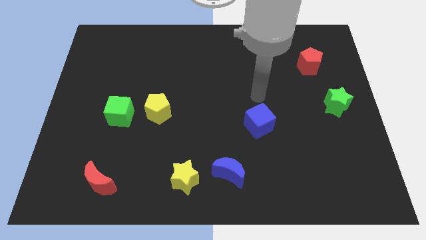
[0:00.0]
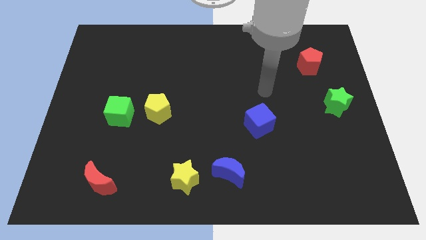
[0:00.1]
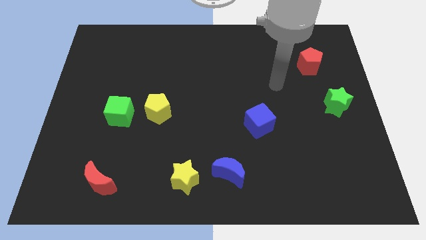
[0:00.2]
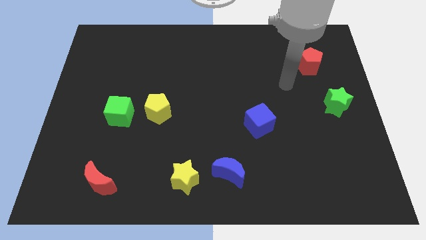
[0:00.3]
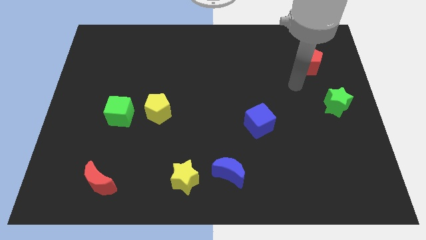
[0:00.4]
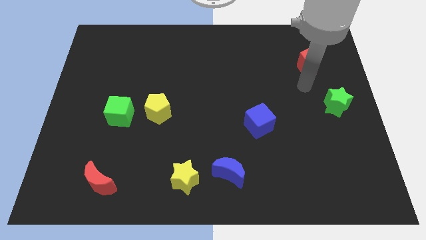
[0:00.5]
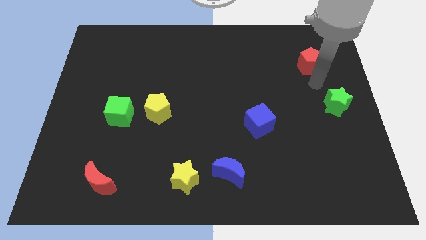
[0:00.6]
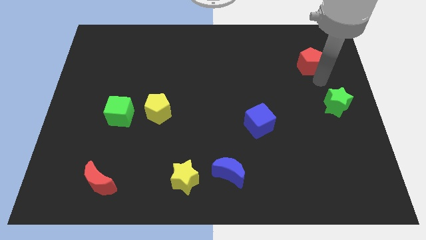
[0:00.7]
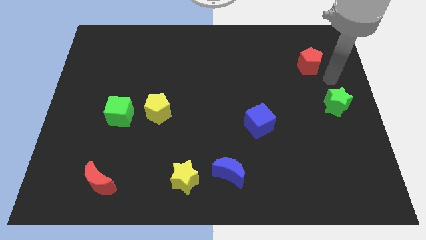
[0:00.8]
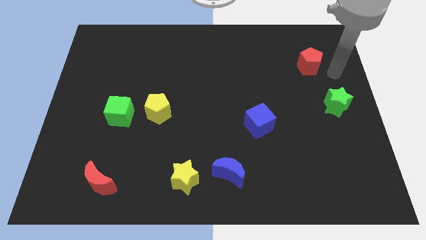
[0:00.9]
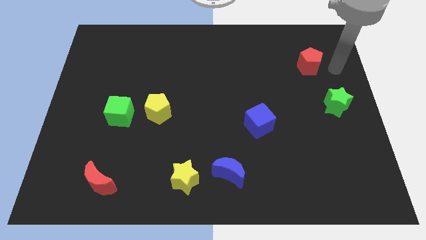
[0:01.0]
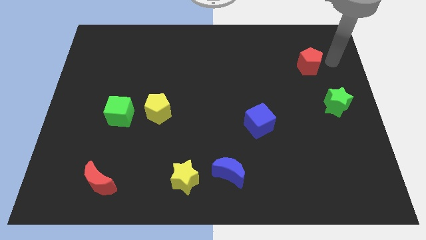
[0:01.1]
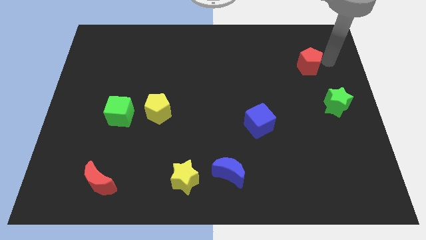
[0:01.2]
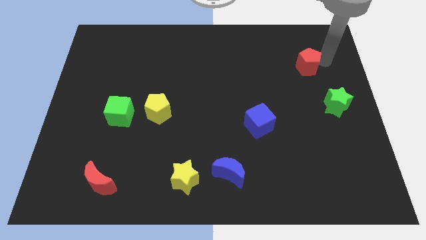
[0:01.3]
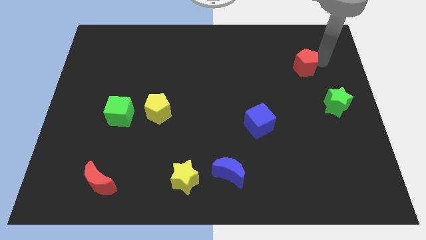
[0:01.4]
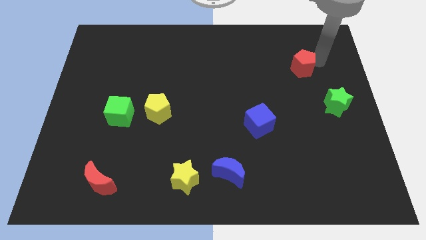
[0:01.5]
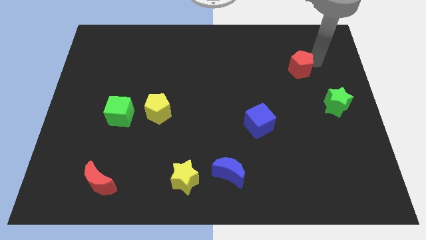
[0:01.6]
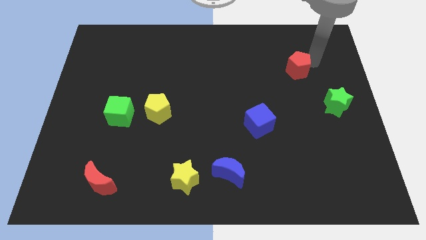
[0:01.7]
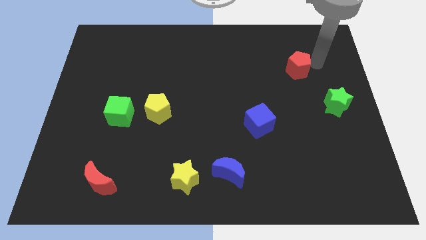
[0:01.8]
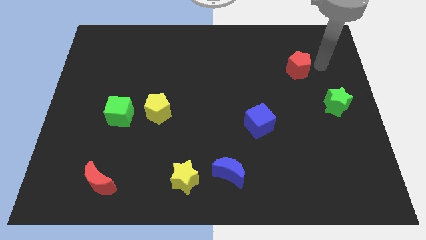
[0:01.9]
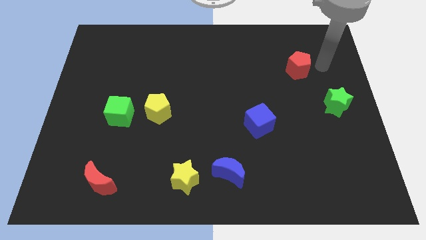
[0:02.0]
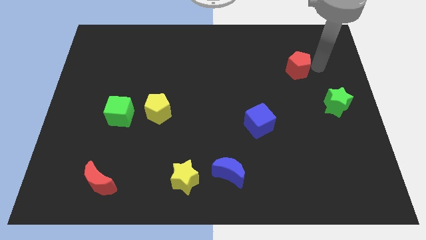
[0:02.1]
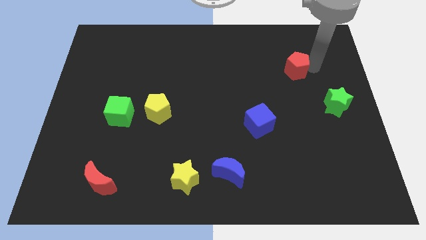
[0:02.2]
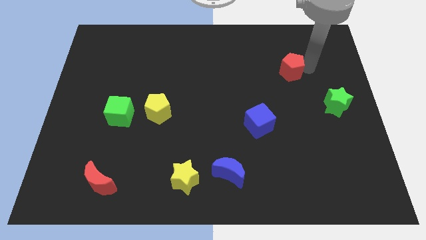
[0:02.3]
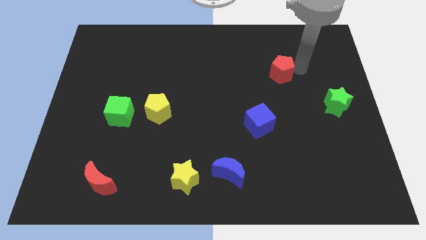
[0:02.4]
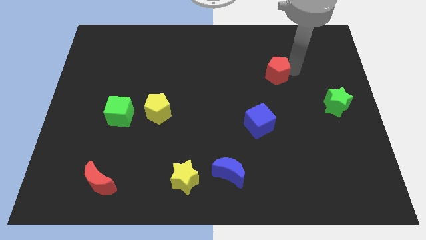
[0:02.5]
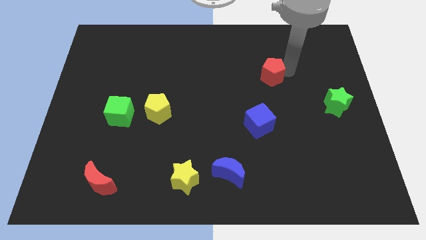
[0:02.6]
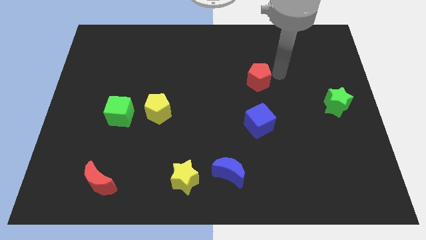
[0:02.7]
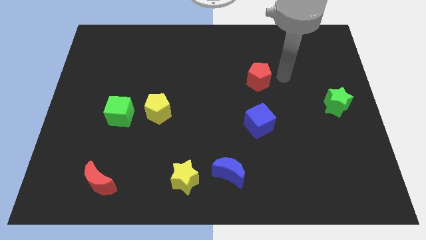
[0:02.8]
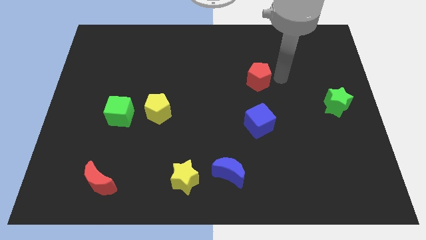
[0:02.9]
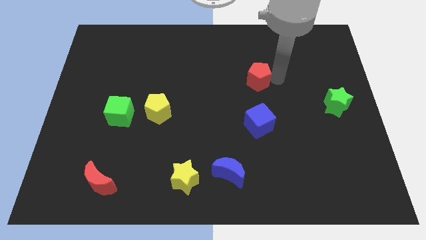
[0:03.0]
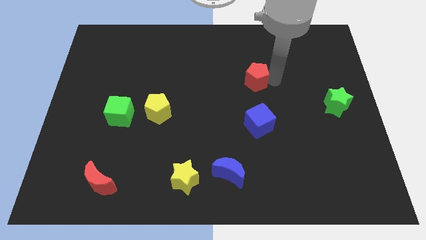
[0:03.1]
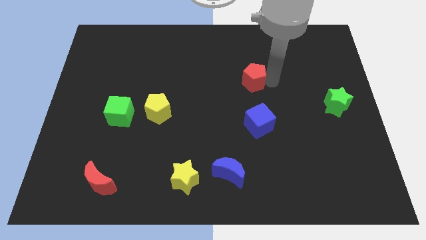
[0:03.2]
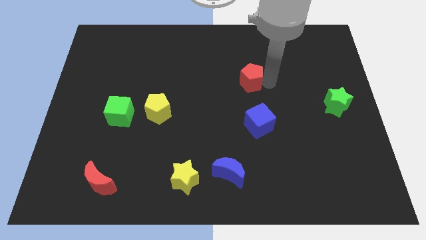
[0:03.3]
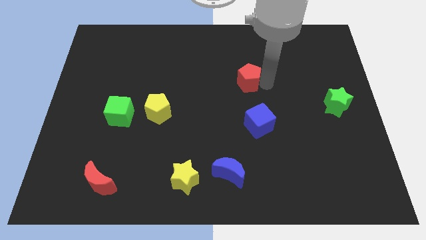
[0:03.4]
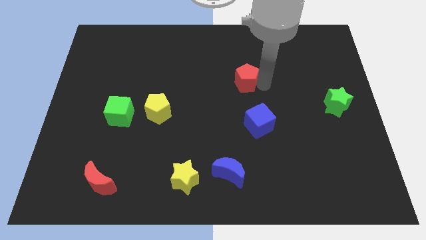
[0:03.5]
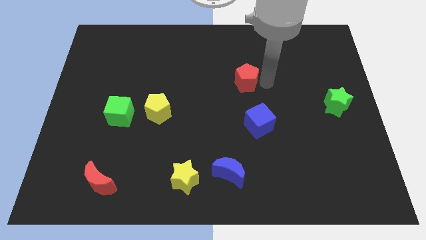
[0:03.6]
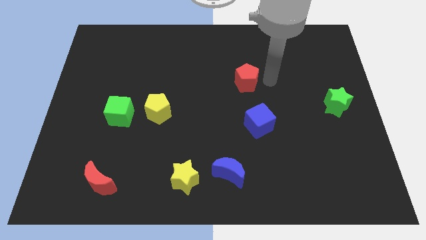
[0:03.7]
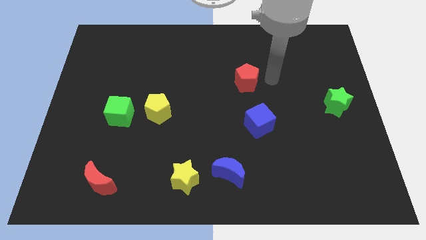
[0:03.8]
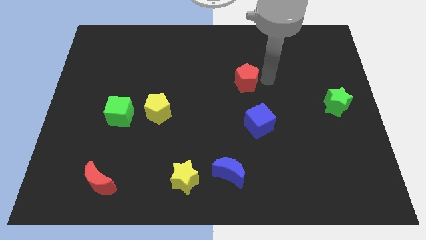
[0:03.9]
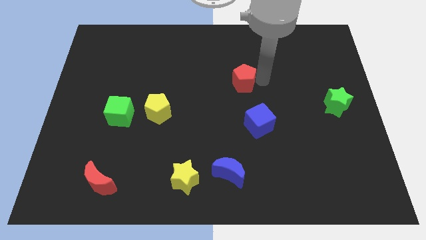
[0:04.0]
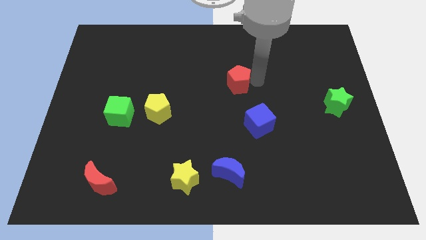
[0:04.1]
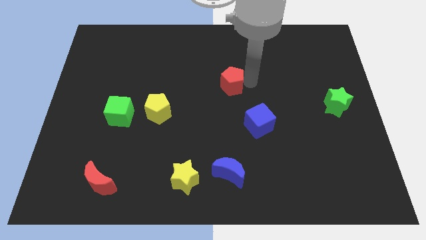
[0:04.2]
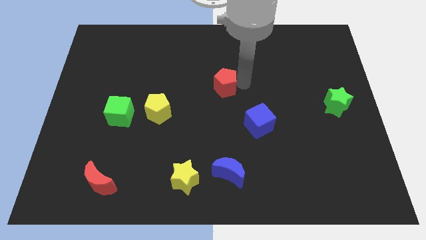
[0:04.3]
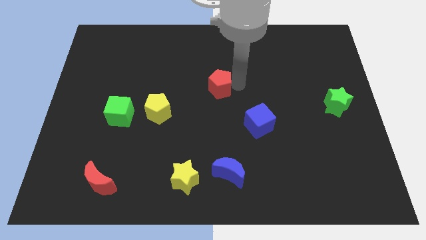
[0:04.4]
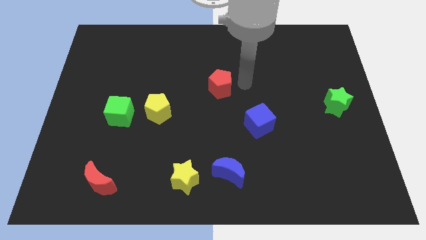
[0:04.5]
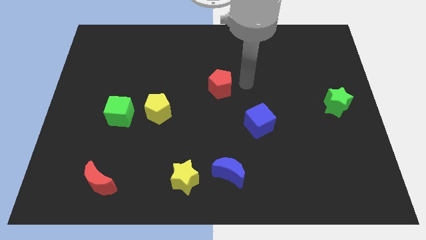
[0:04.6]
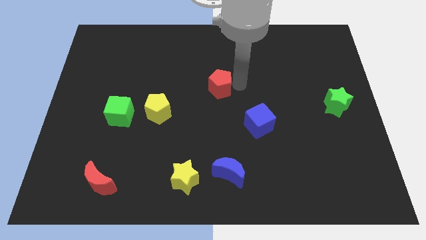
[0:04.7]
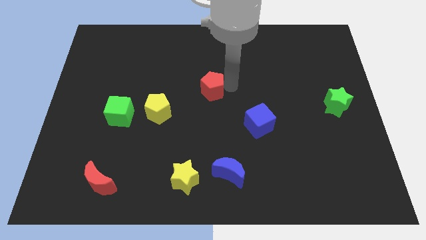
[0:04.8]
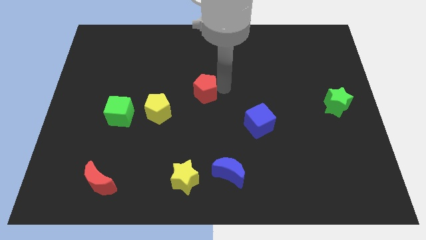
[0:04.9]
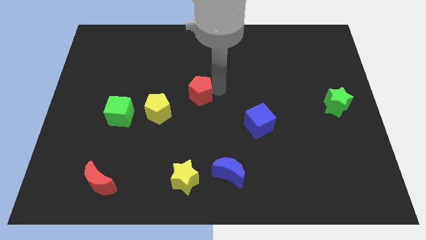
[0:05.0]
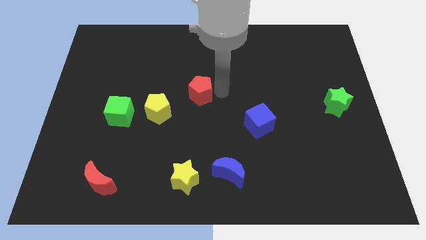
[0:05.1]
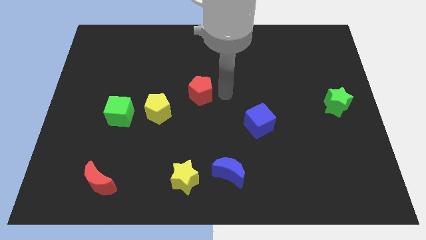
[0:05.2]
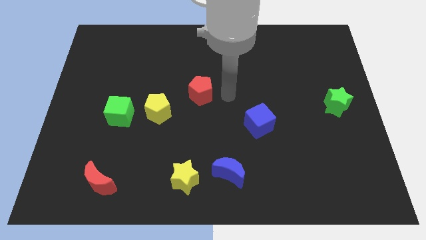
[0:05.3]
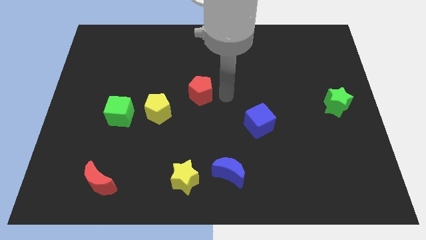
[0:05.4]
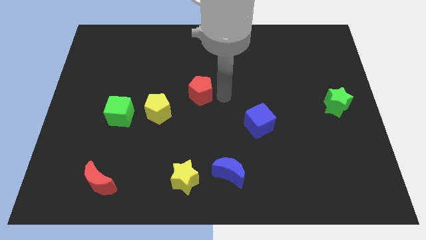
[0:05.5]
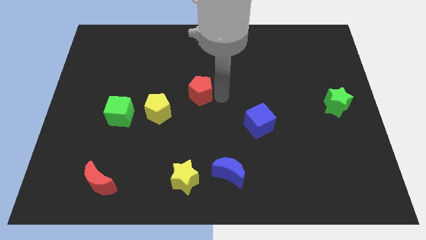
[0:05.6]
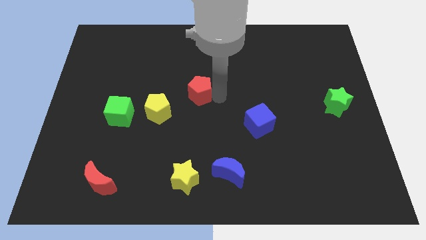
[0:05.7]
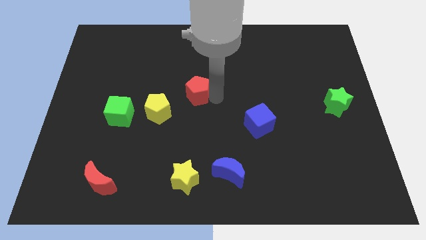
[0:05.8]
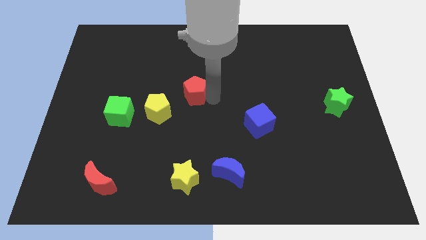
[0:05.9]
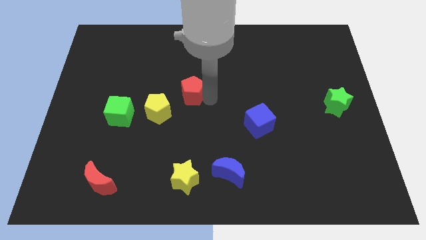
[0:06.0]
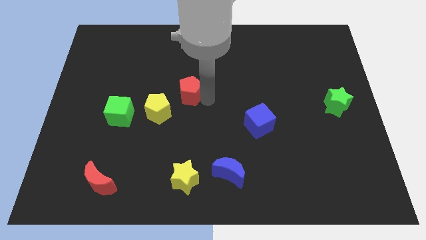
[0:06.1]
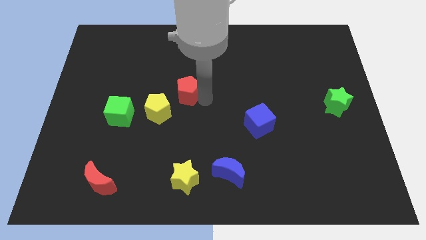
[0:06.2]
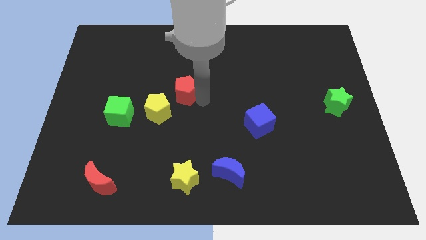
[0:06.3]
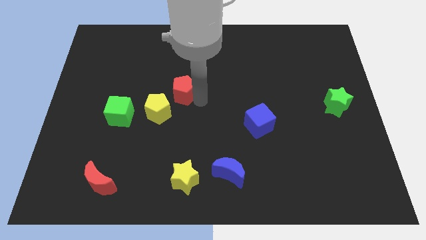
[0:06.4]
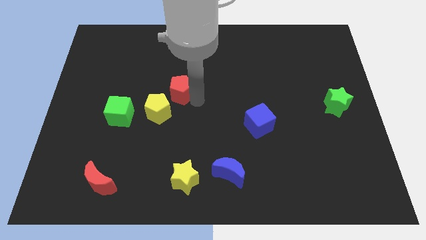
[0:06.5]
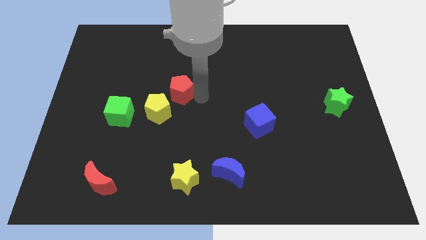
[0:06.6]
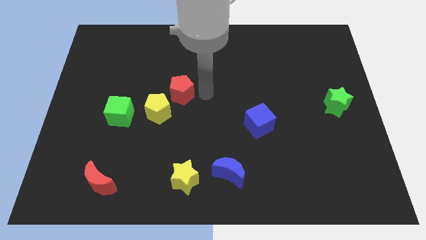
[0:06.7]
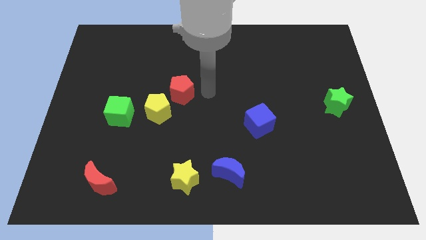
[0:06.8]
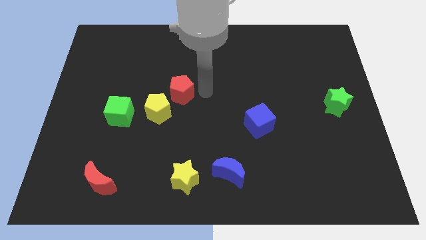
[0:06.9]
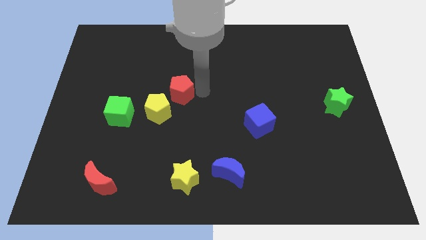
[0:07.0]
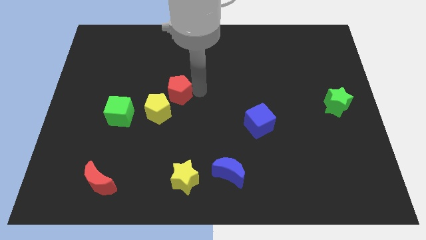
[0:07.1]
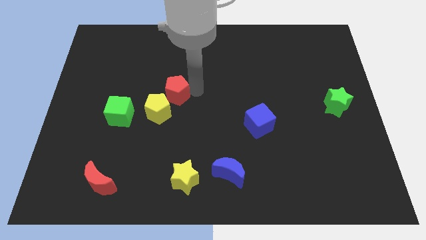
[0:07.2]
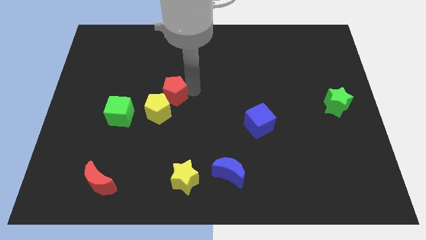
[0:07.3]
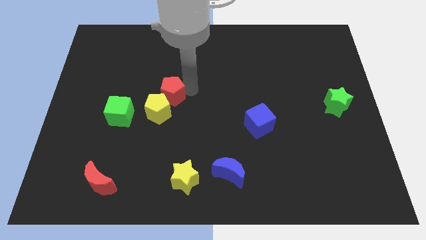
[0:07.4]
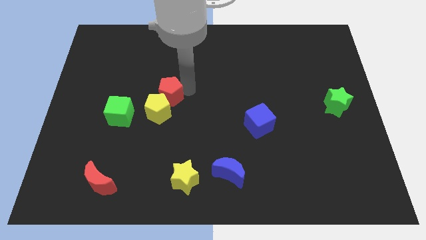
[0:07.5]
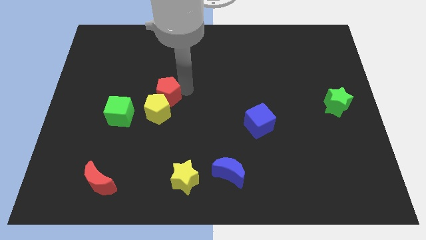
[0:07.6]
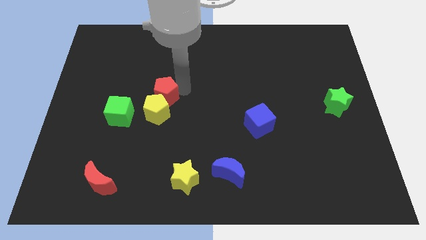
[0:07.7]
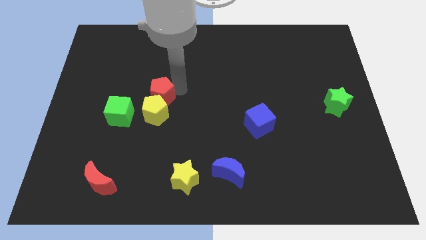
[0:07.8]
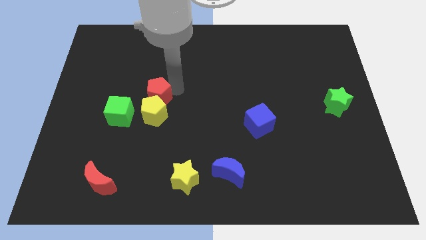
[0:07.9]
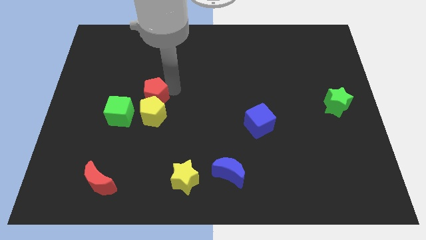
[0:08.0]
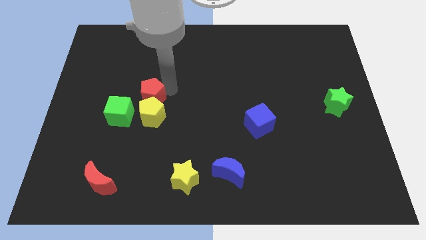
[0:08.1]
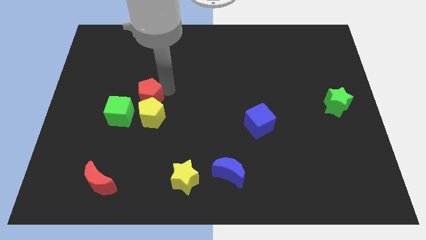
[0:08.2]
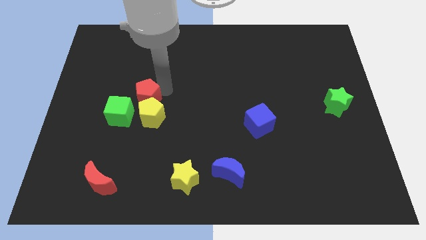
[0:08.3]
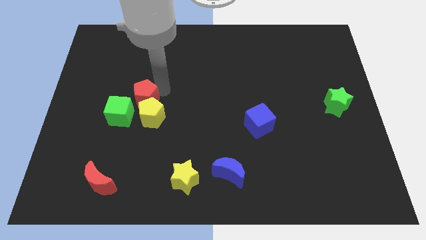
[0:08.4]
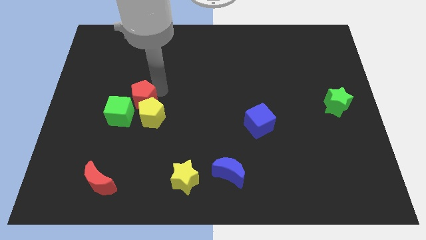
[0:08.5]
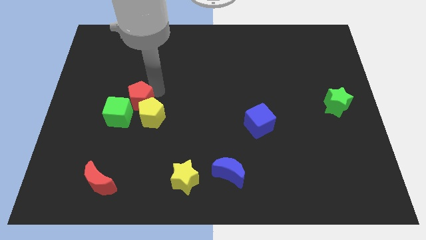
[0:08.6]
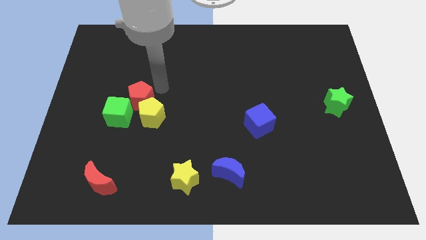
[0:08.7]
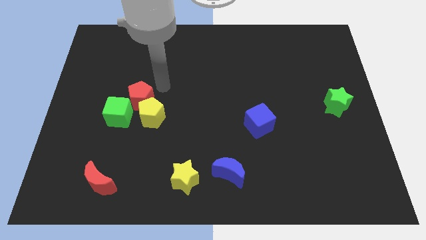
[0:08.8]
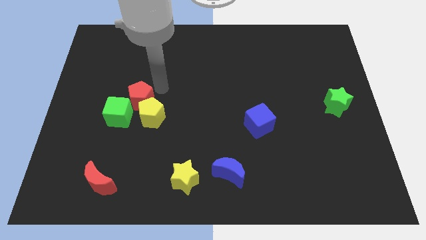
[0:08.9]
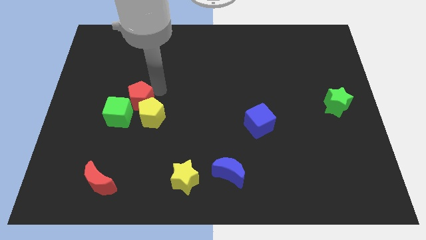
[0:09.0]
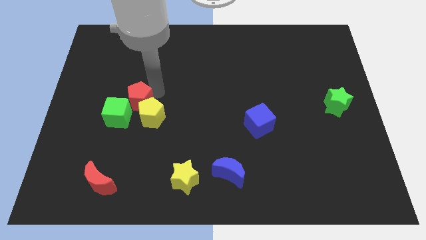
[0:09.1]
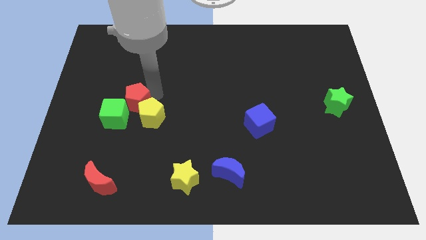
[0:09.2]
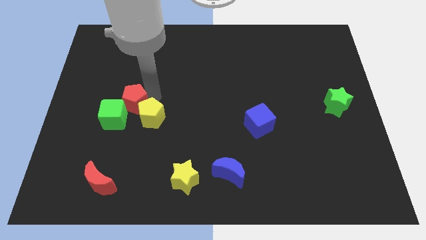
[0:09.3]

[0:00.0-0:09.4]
push the red pentagon close to the green cube
